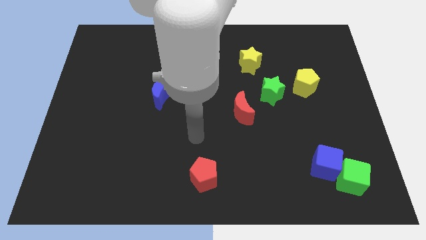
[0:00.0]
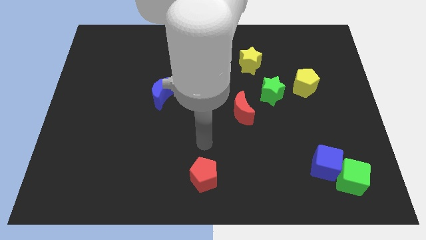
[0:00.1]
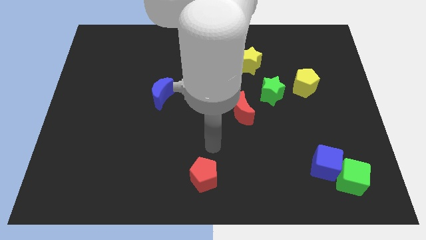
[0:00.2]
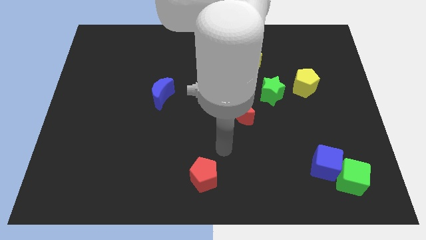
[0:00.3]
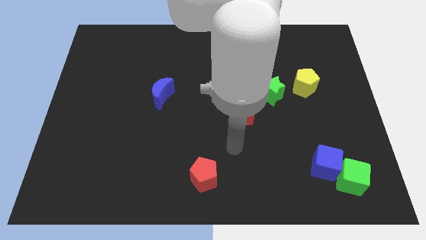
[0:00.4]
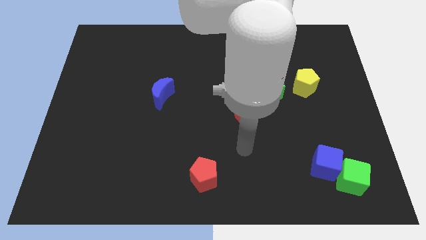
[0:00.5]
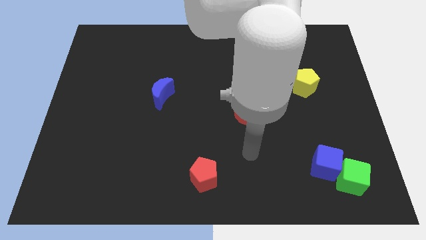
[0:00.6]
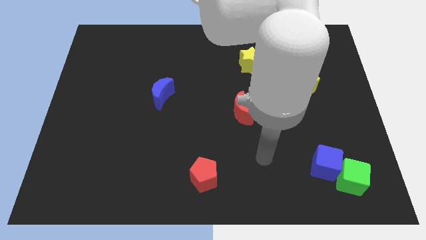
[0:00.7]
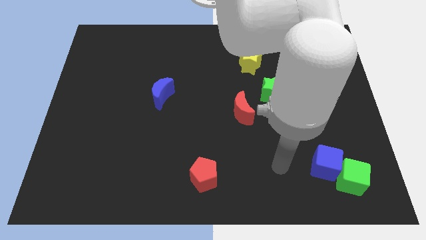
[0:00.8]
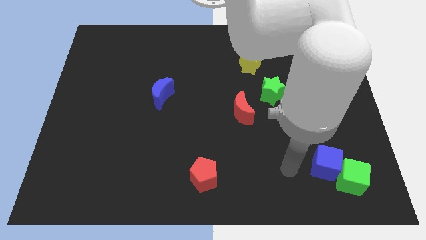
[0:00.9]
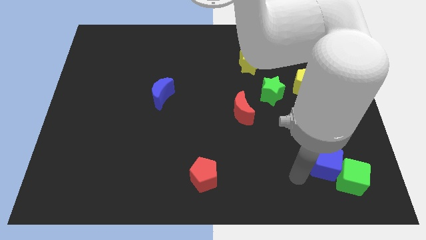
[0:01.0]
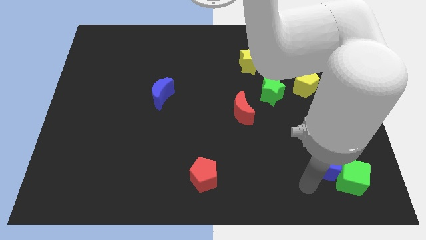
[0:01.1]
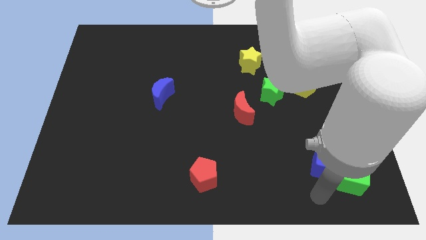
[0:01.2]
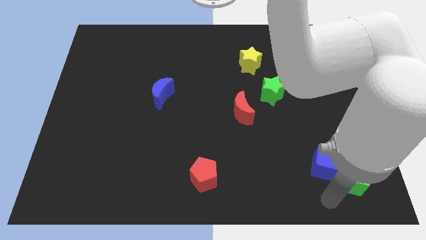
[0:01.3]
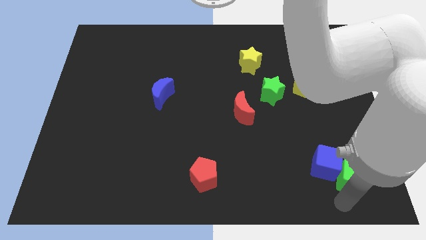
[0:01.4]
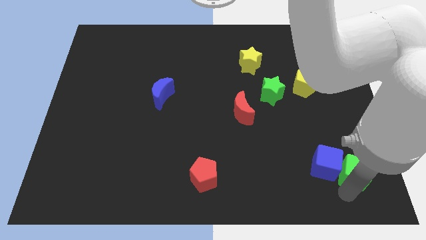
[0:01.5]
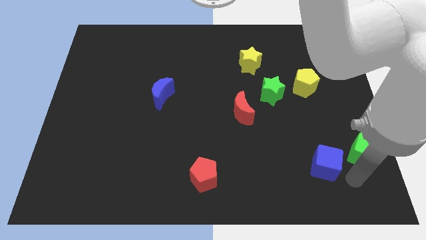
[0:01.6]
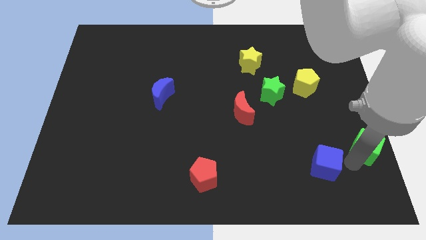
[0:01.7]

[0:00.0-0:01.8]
move the blue cube away from the green cube

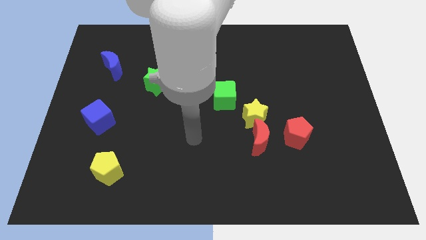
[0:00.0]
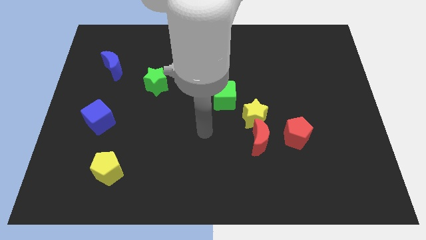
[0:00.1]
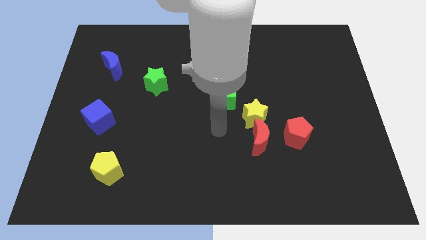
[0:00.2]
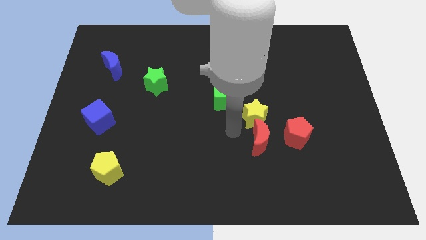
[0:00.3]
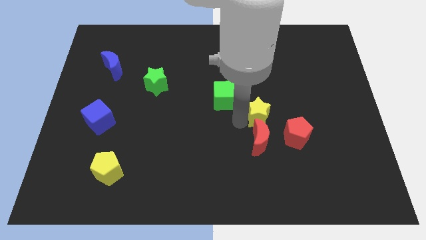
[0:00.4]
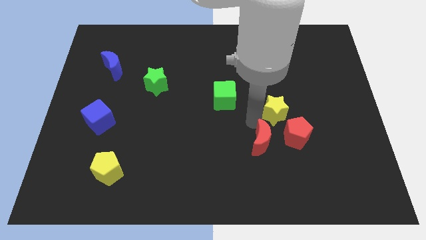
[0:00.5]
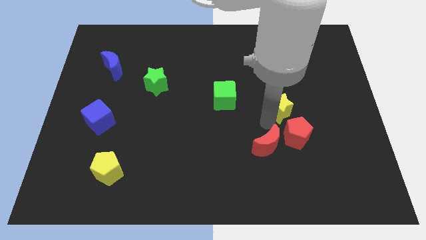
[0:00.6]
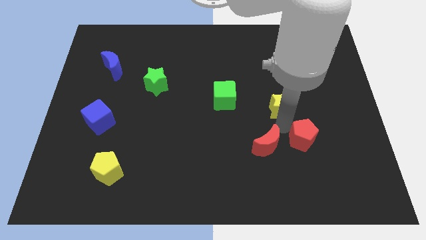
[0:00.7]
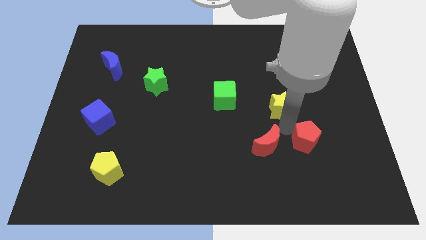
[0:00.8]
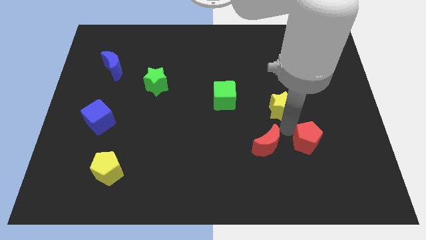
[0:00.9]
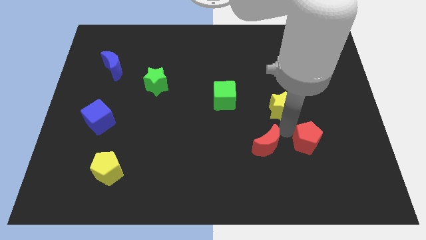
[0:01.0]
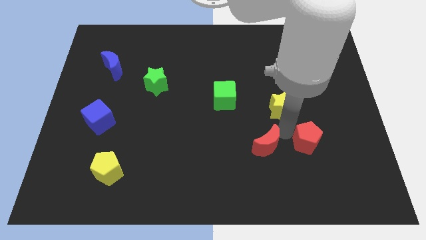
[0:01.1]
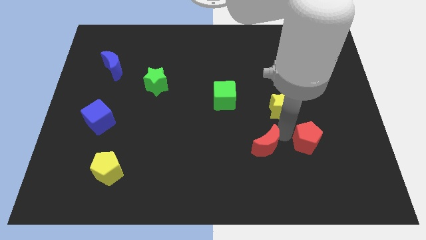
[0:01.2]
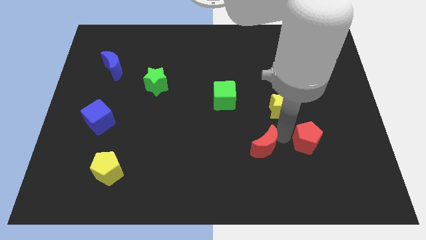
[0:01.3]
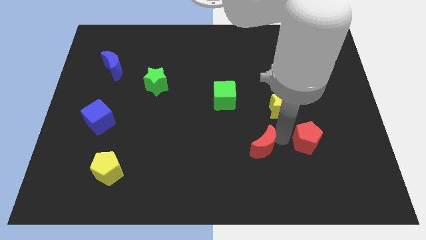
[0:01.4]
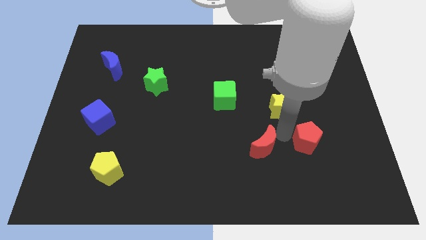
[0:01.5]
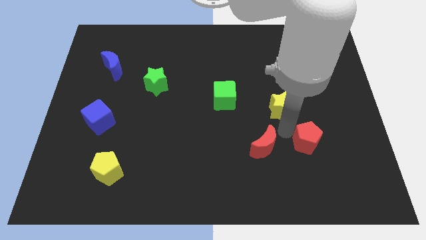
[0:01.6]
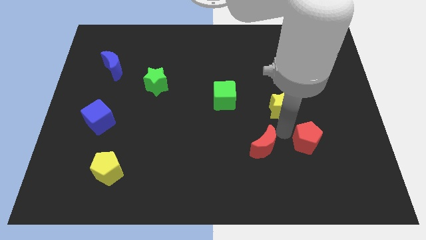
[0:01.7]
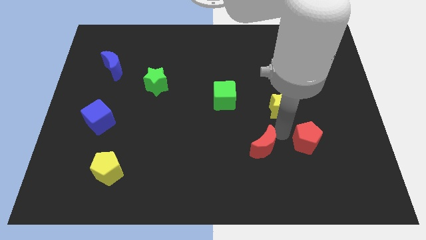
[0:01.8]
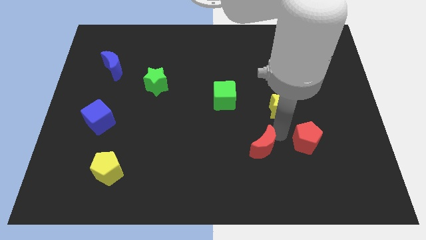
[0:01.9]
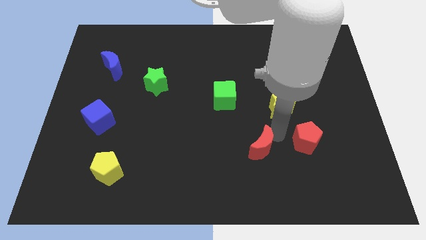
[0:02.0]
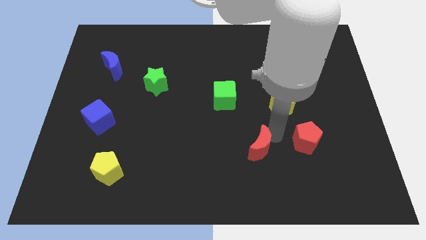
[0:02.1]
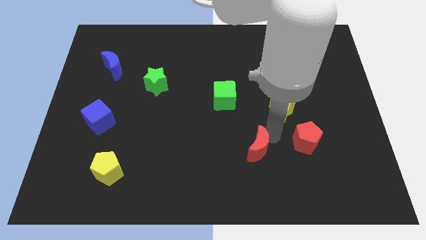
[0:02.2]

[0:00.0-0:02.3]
pull the red moon apart from the yellow star and red pentagon

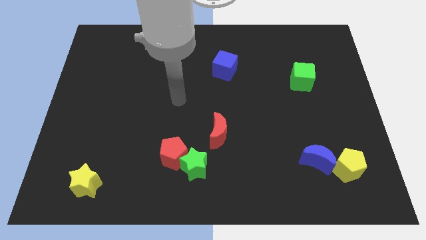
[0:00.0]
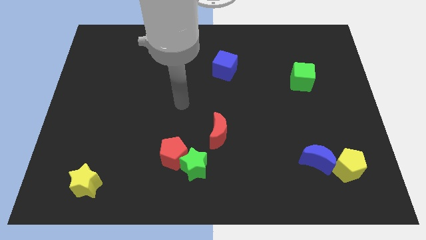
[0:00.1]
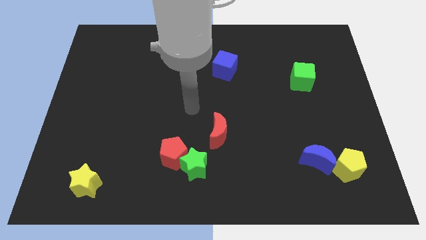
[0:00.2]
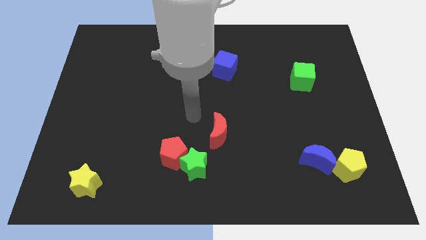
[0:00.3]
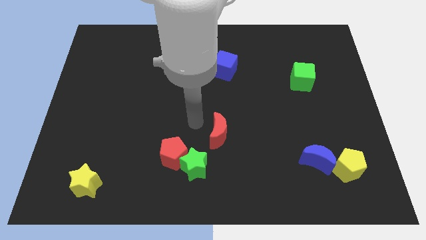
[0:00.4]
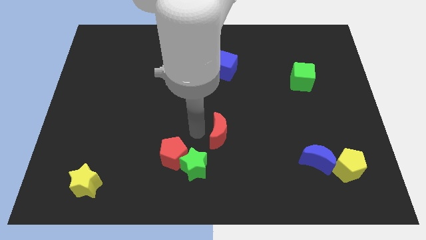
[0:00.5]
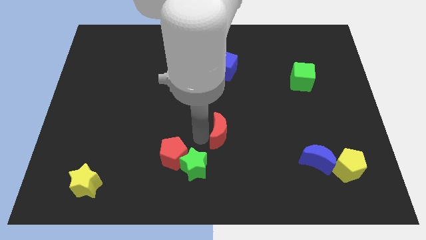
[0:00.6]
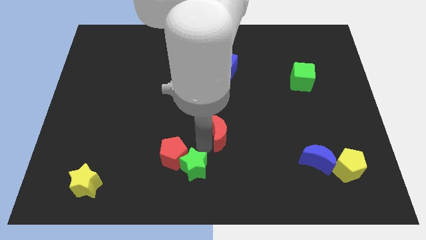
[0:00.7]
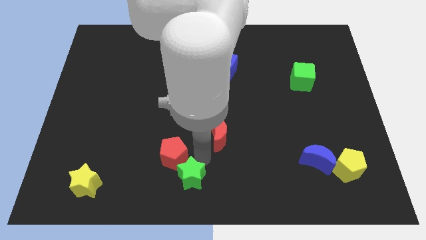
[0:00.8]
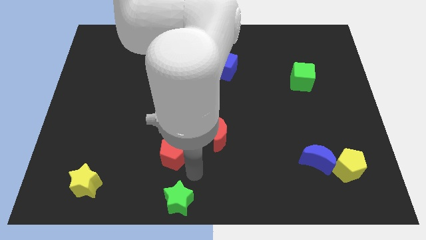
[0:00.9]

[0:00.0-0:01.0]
pull the red pentagon apart from the green star

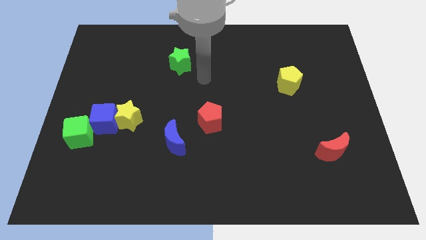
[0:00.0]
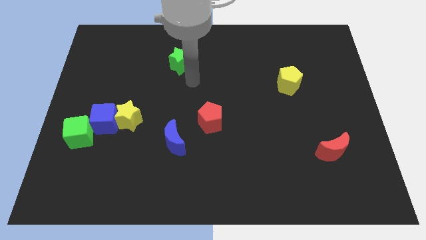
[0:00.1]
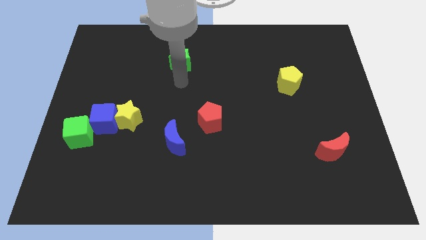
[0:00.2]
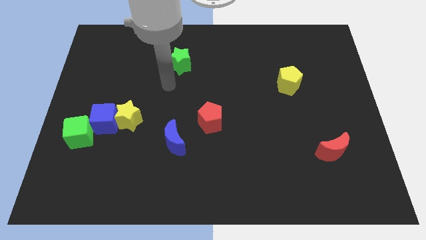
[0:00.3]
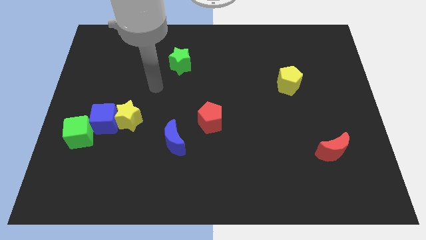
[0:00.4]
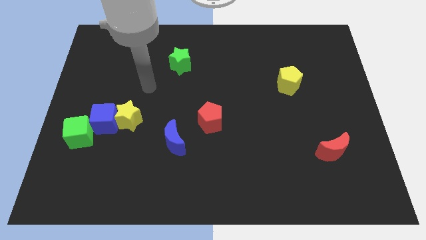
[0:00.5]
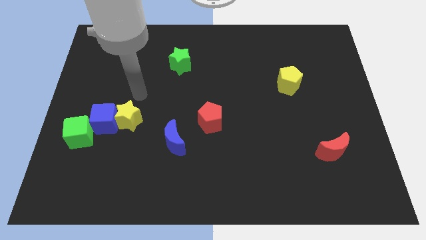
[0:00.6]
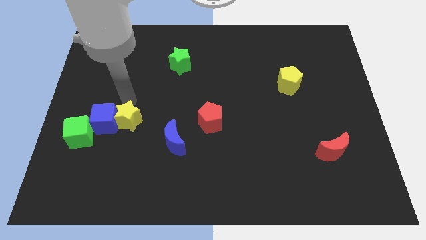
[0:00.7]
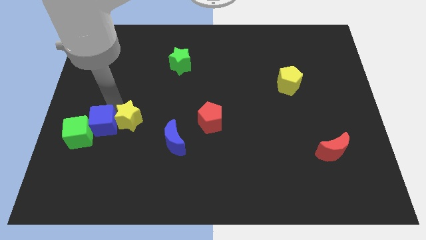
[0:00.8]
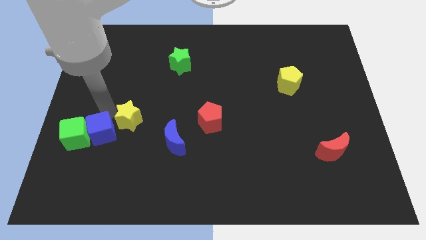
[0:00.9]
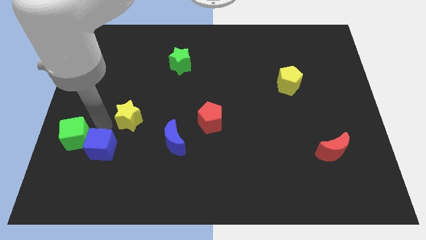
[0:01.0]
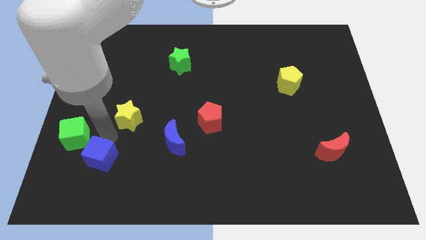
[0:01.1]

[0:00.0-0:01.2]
move the yellow star away from the blue cube

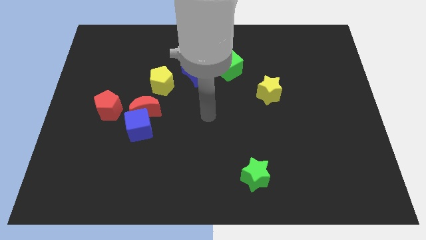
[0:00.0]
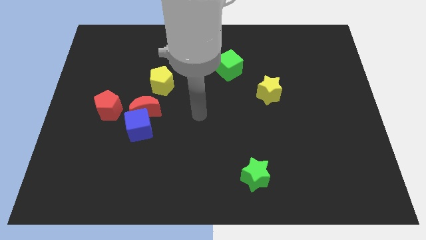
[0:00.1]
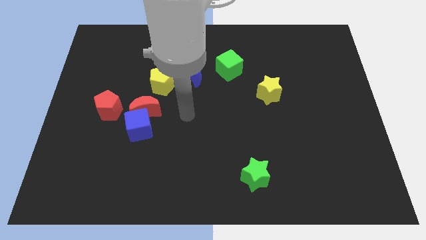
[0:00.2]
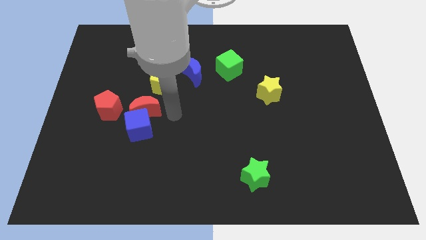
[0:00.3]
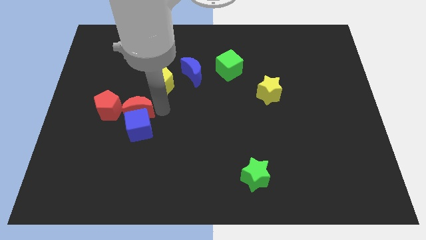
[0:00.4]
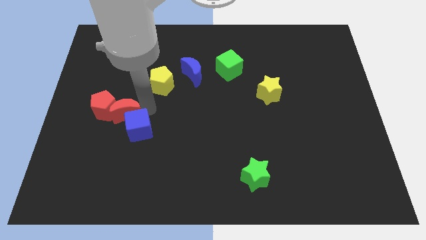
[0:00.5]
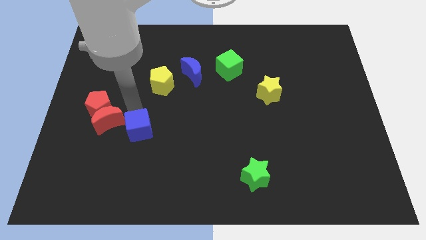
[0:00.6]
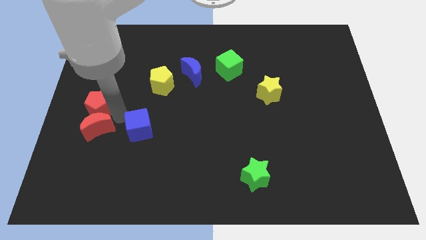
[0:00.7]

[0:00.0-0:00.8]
move the blue cube away from the red moon and red pentagon

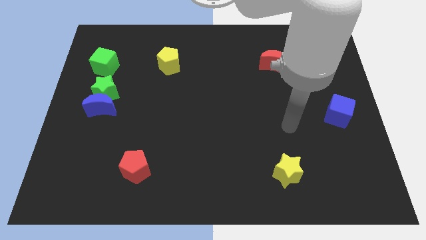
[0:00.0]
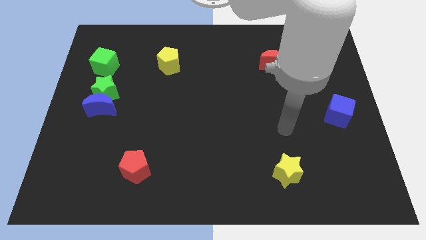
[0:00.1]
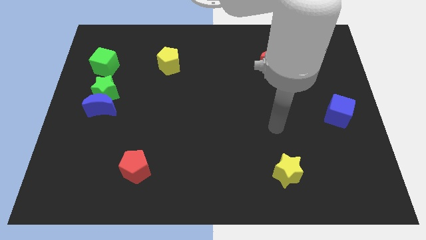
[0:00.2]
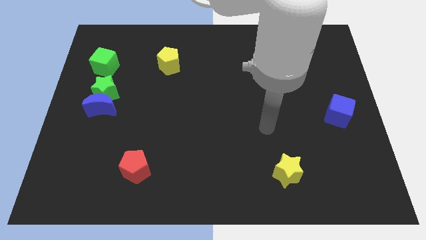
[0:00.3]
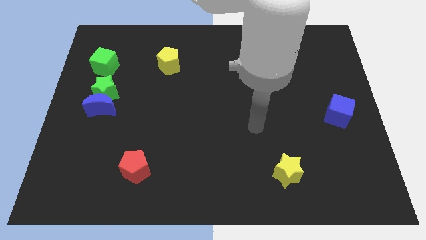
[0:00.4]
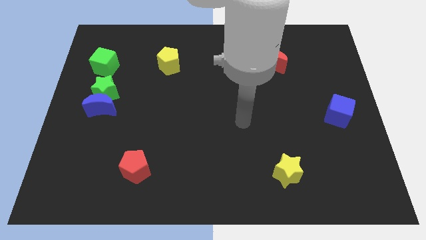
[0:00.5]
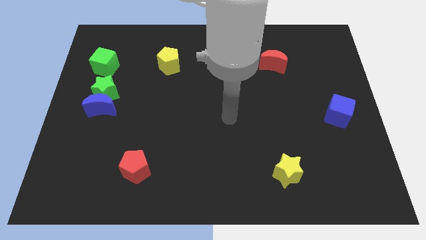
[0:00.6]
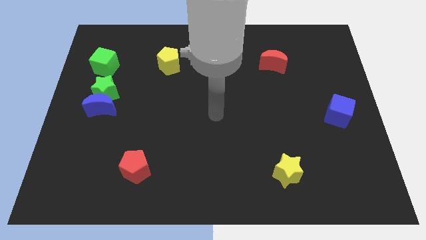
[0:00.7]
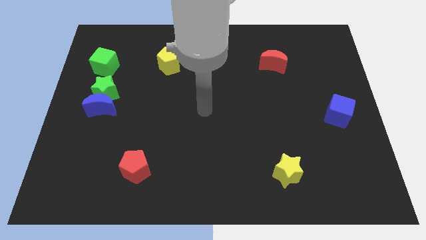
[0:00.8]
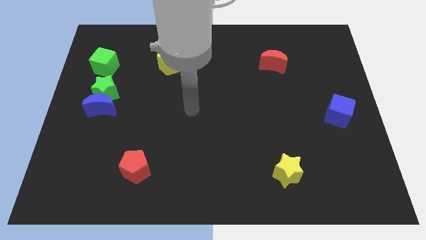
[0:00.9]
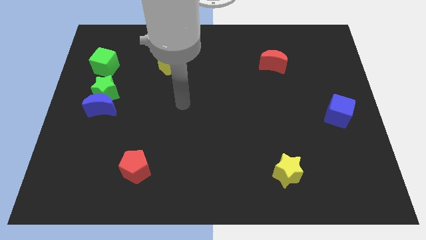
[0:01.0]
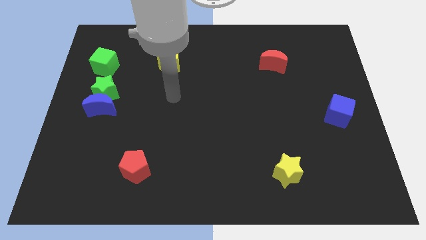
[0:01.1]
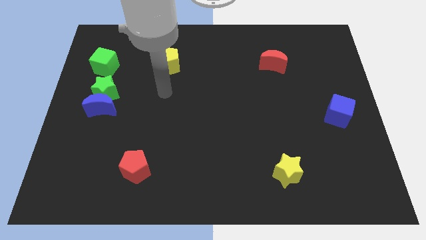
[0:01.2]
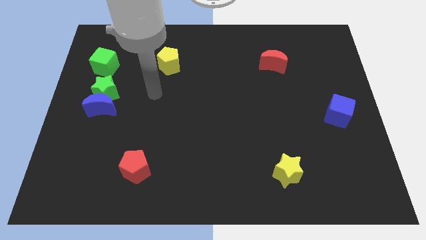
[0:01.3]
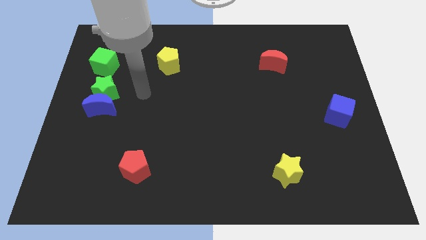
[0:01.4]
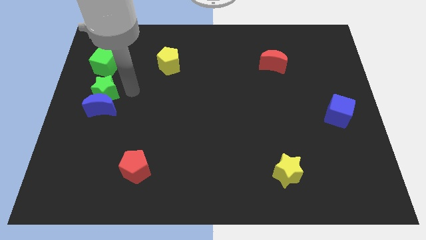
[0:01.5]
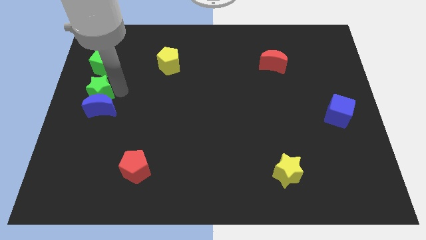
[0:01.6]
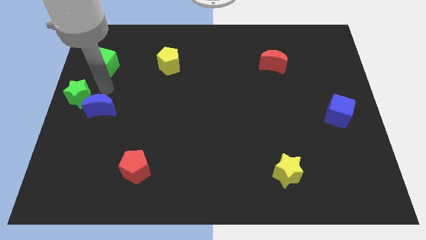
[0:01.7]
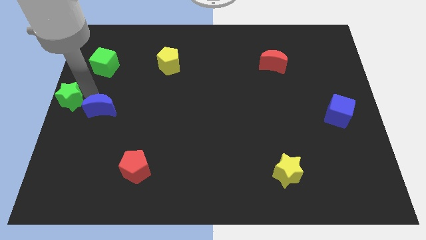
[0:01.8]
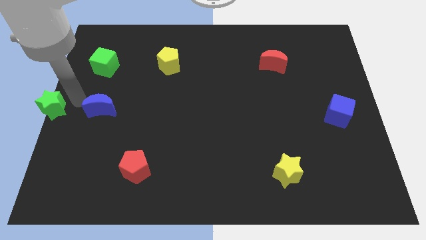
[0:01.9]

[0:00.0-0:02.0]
move the blue moon away from the green star

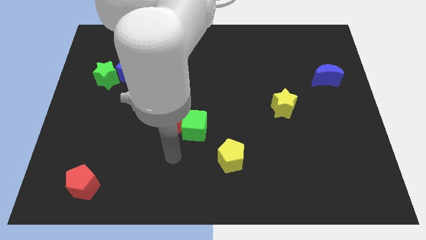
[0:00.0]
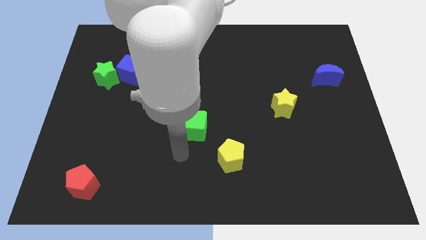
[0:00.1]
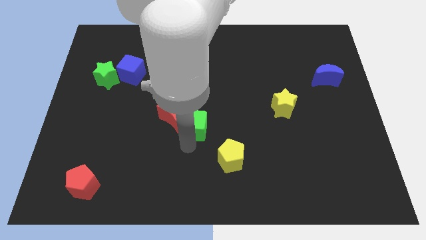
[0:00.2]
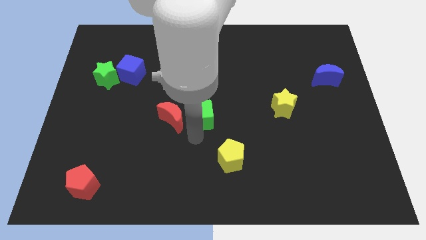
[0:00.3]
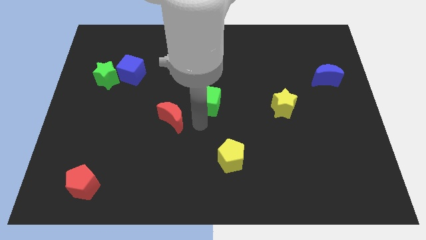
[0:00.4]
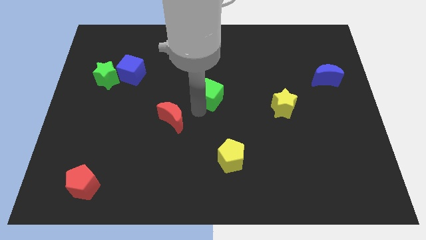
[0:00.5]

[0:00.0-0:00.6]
move the red moon away from the green cube
